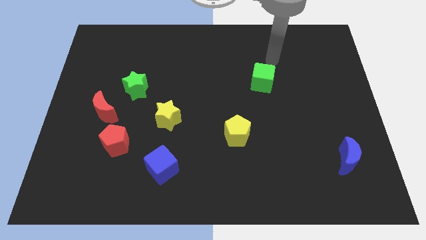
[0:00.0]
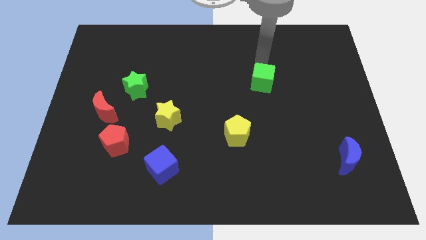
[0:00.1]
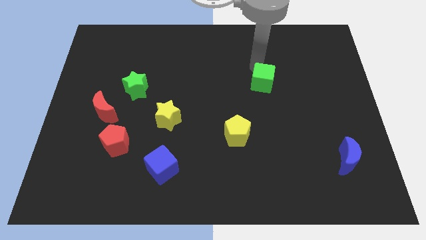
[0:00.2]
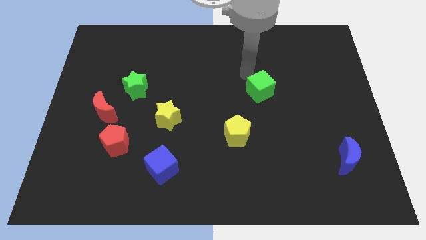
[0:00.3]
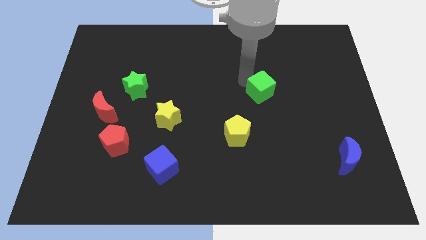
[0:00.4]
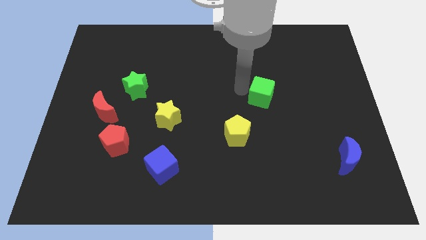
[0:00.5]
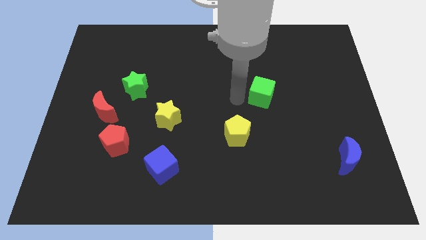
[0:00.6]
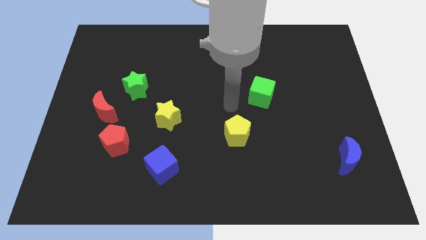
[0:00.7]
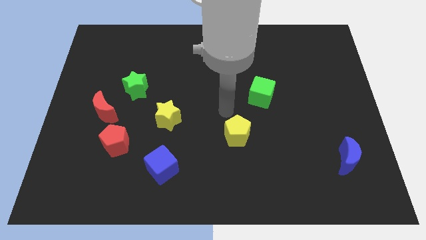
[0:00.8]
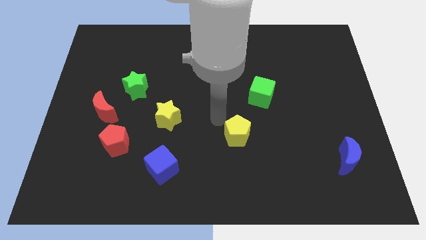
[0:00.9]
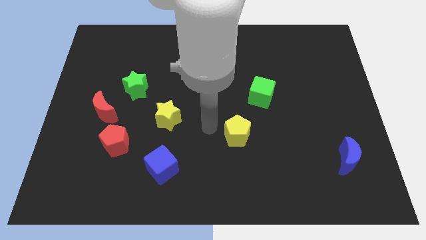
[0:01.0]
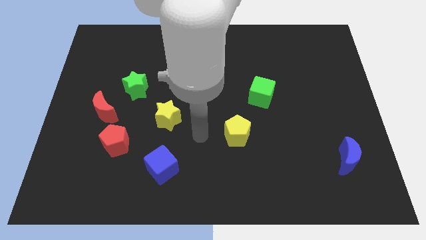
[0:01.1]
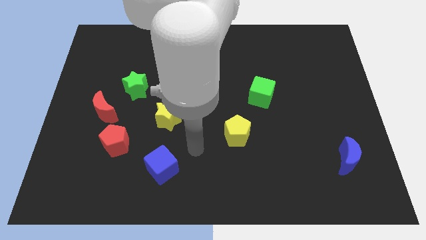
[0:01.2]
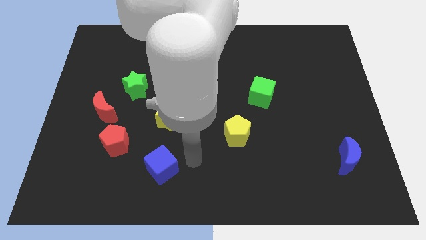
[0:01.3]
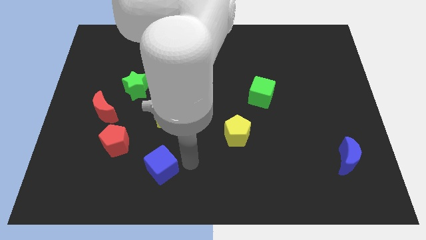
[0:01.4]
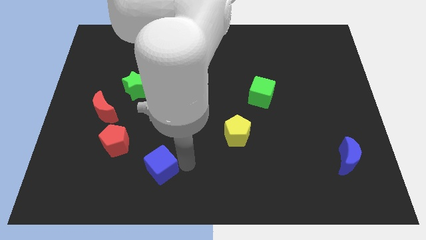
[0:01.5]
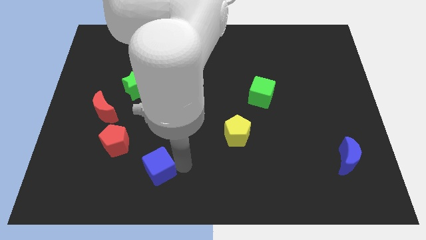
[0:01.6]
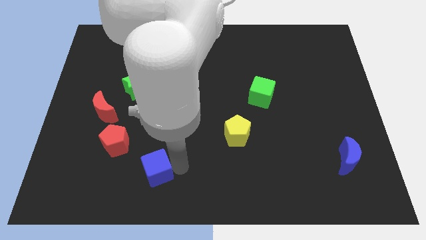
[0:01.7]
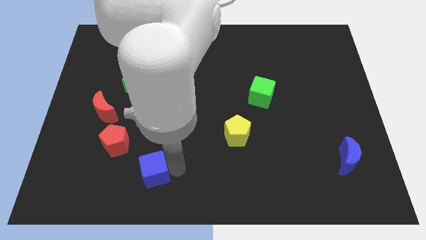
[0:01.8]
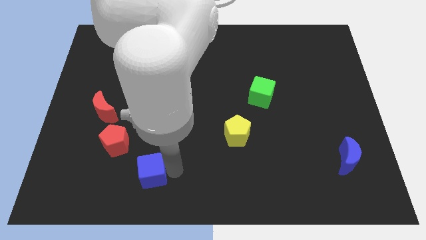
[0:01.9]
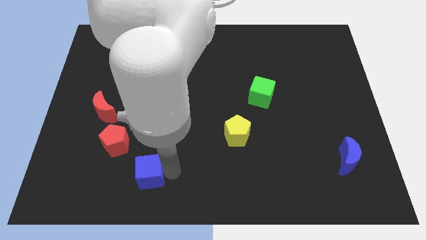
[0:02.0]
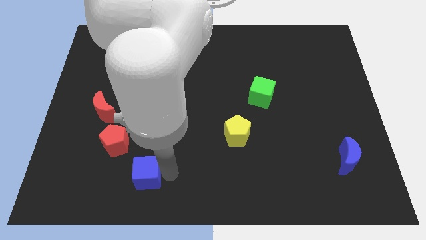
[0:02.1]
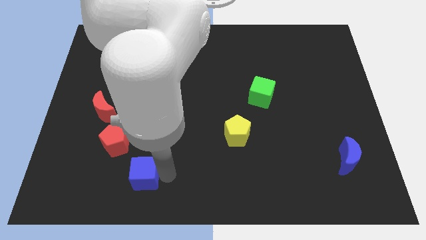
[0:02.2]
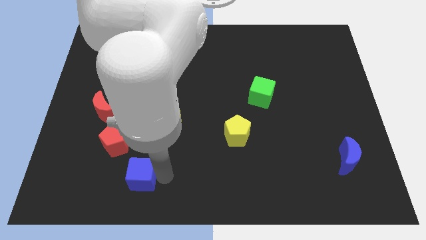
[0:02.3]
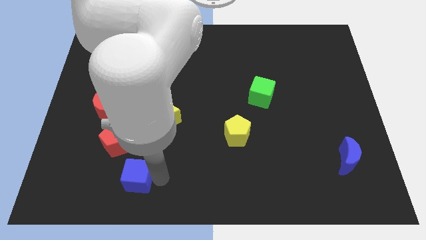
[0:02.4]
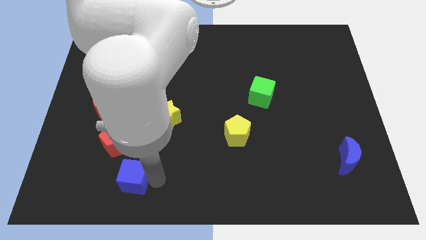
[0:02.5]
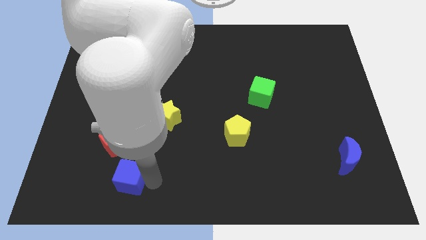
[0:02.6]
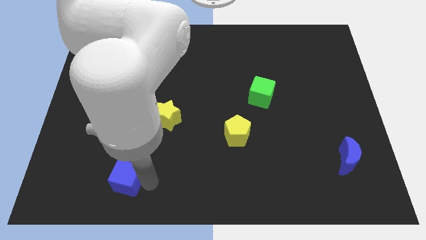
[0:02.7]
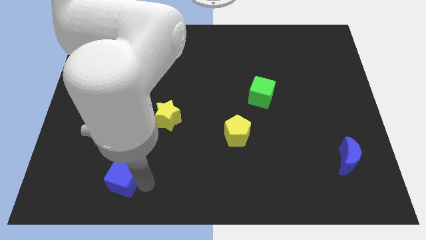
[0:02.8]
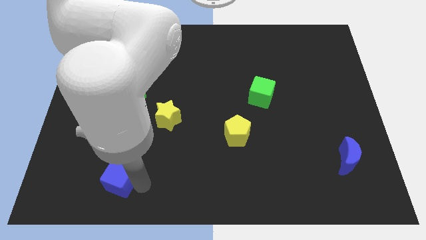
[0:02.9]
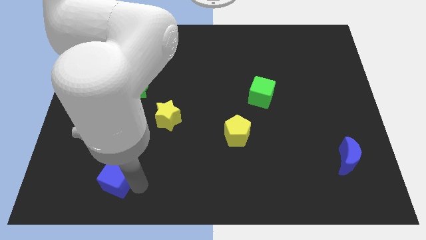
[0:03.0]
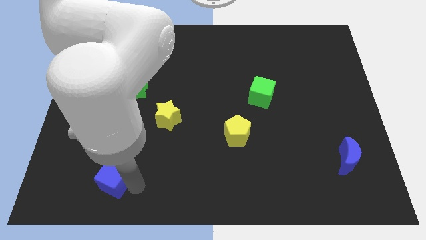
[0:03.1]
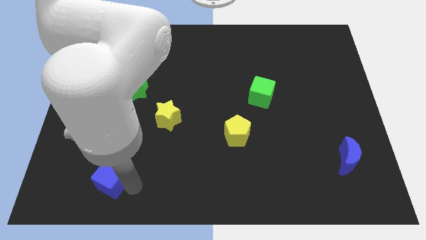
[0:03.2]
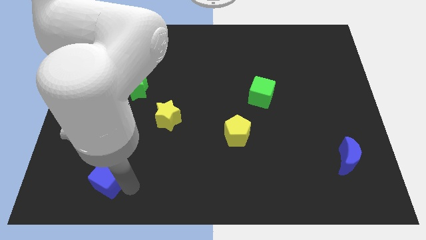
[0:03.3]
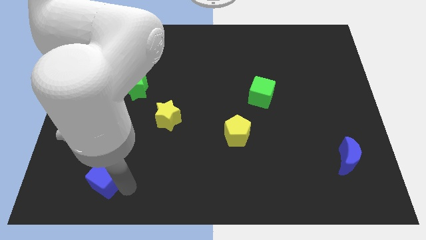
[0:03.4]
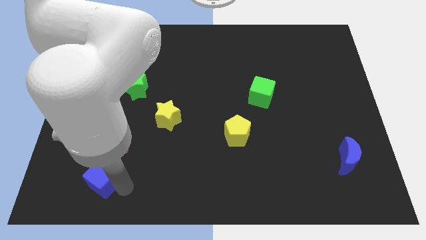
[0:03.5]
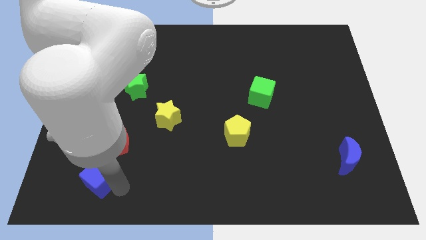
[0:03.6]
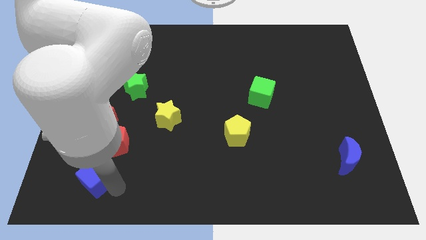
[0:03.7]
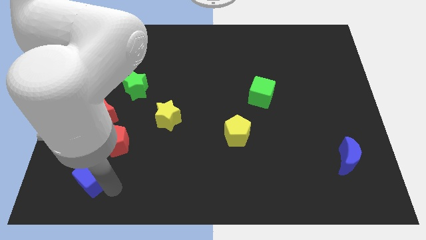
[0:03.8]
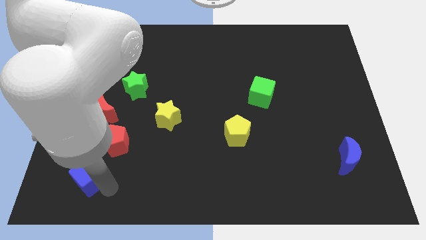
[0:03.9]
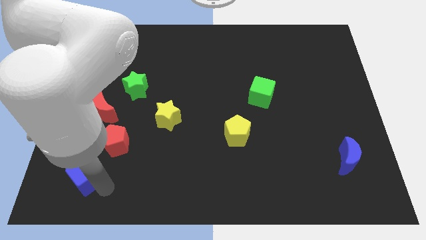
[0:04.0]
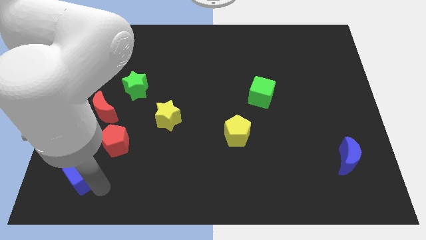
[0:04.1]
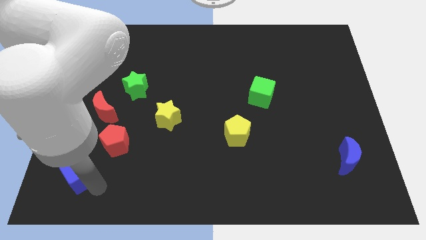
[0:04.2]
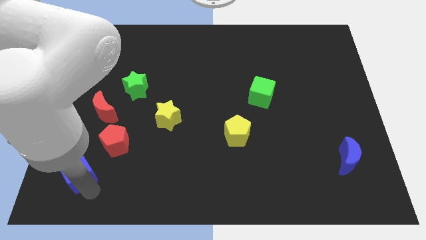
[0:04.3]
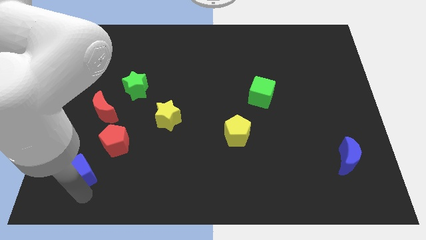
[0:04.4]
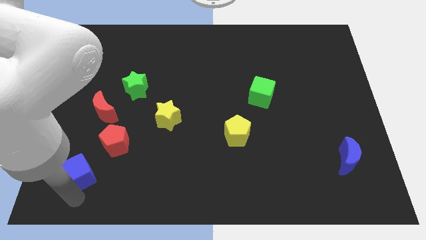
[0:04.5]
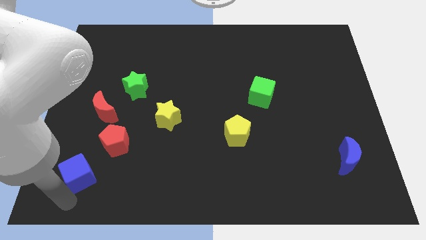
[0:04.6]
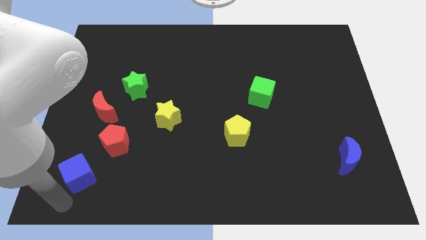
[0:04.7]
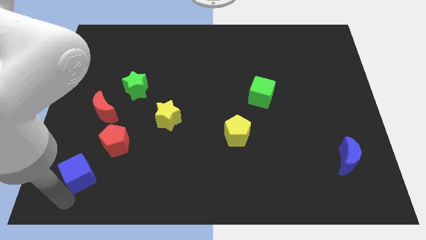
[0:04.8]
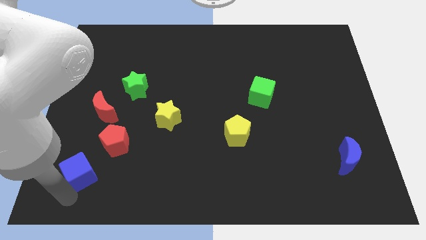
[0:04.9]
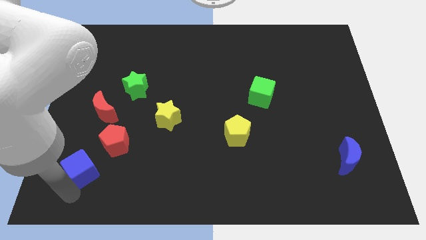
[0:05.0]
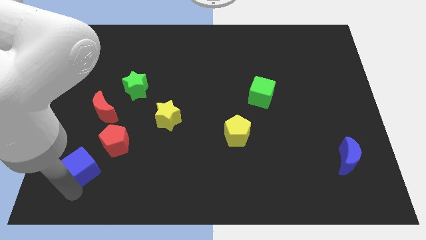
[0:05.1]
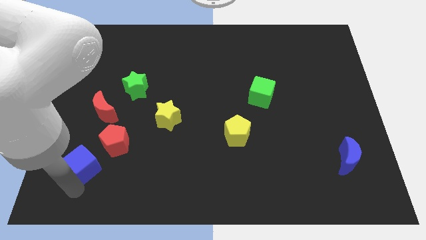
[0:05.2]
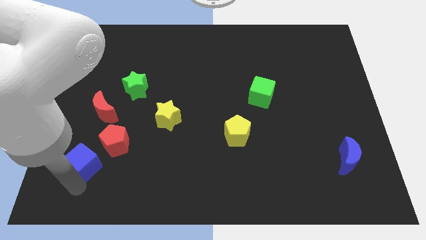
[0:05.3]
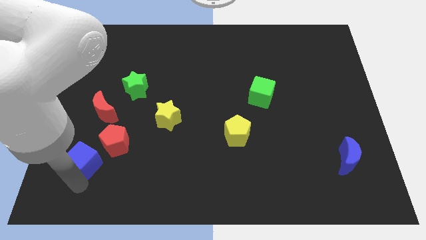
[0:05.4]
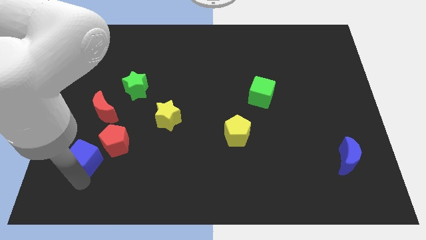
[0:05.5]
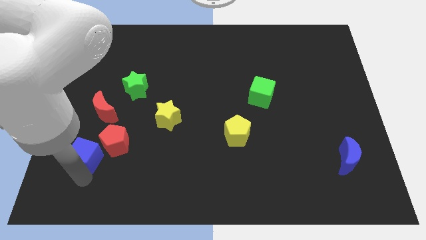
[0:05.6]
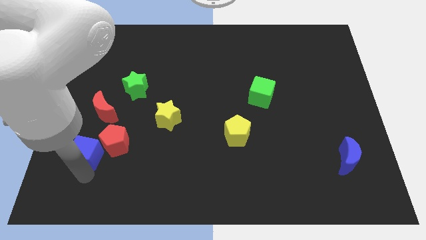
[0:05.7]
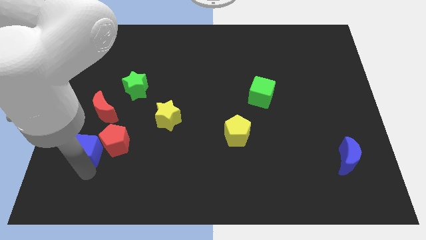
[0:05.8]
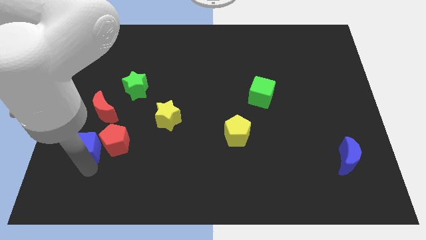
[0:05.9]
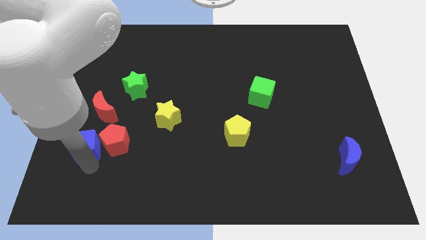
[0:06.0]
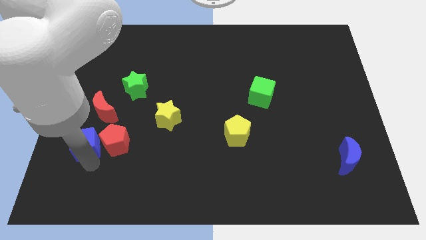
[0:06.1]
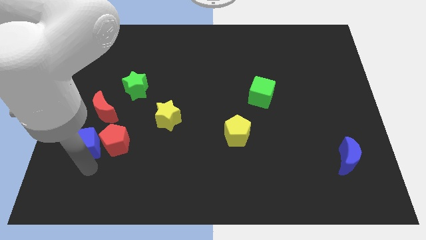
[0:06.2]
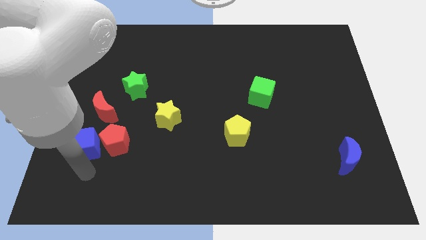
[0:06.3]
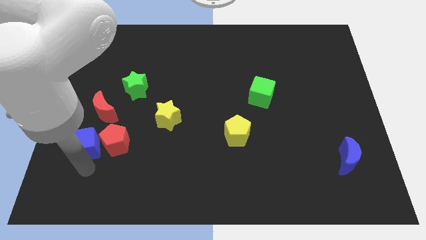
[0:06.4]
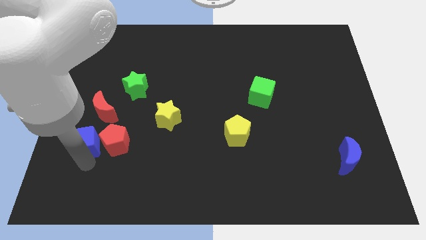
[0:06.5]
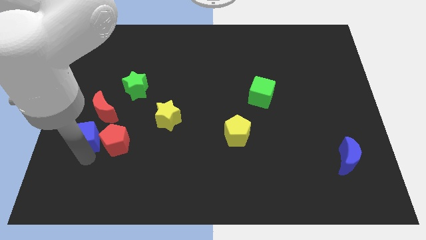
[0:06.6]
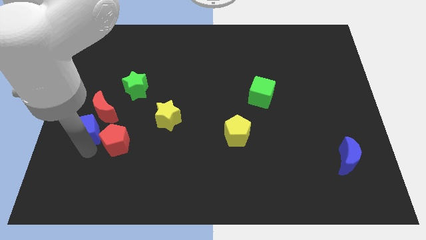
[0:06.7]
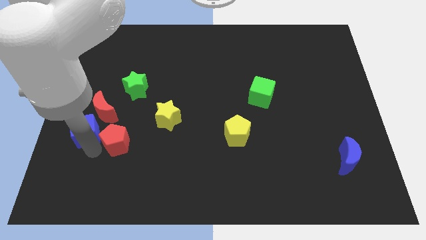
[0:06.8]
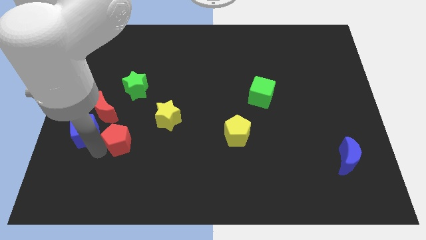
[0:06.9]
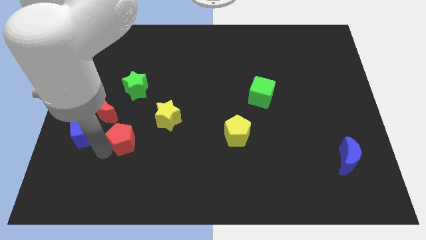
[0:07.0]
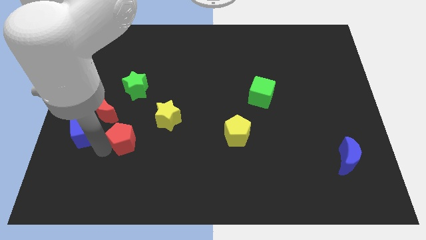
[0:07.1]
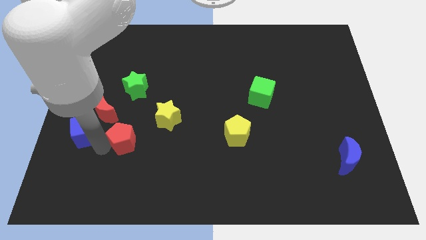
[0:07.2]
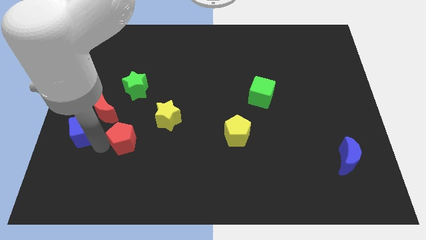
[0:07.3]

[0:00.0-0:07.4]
slide the blue cube to the left side of the board
